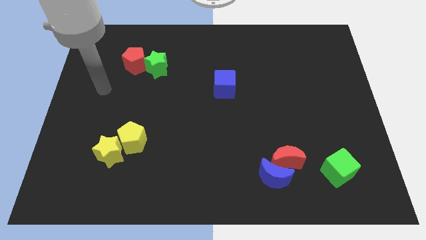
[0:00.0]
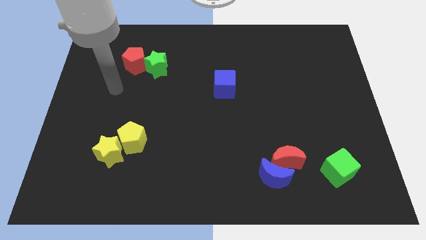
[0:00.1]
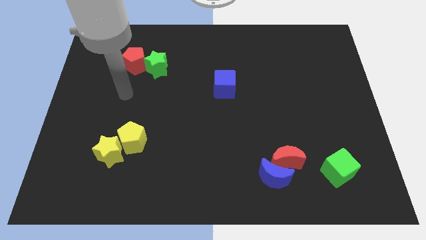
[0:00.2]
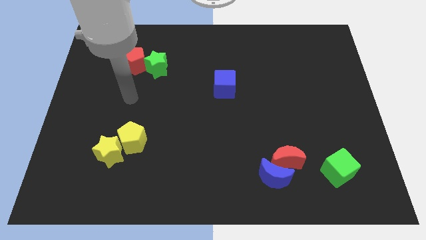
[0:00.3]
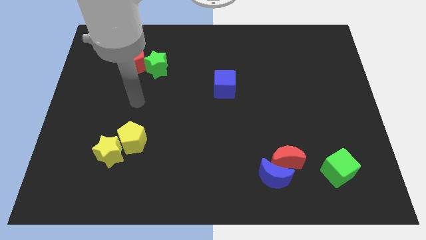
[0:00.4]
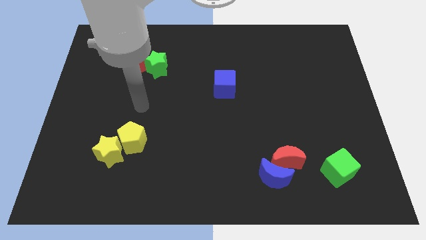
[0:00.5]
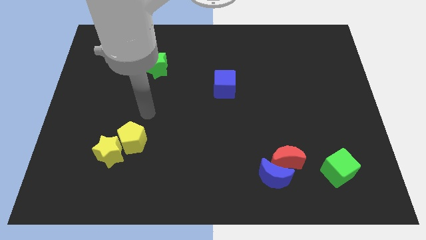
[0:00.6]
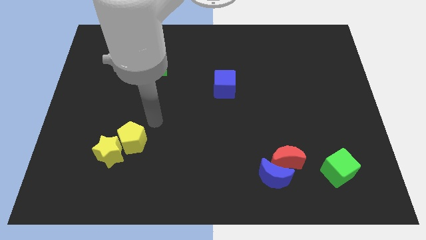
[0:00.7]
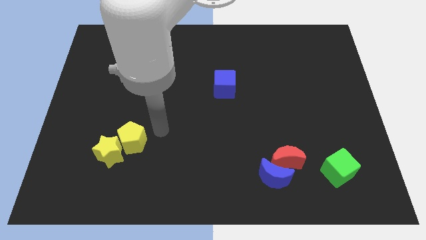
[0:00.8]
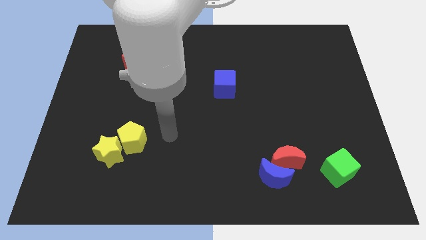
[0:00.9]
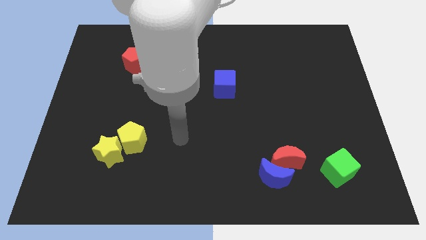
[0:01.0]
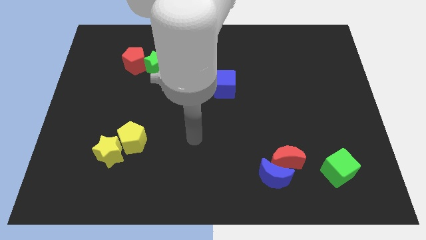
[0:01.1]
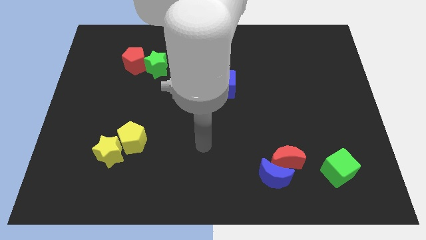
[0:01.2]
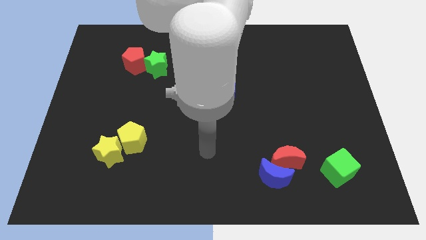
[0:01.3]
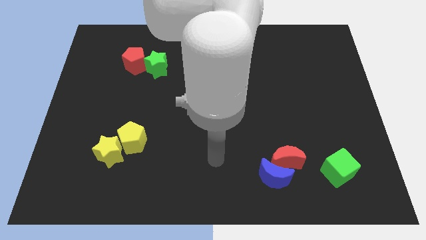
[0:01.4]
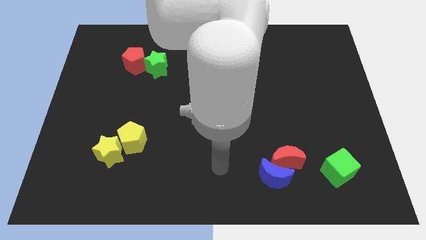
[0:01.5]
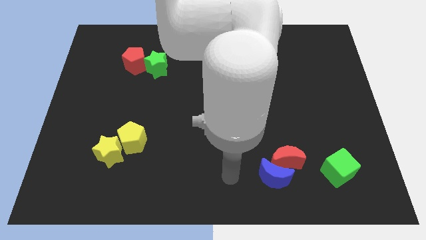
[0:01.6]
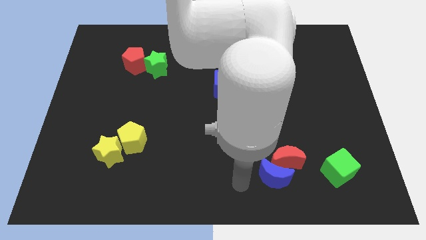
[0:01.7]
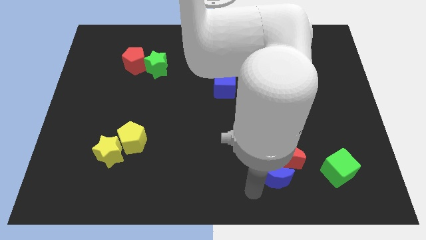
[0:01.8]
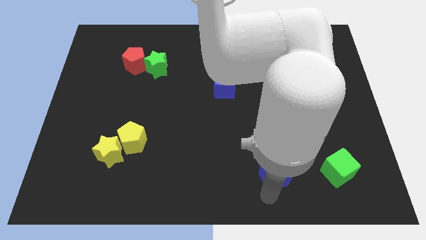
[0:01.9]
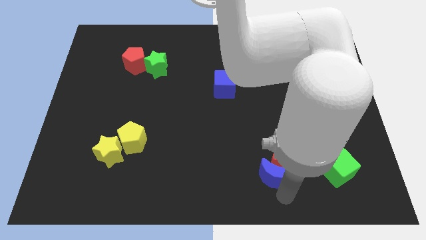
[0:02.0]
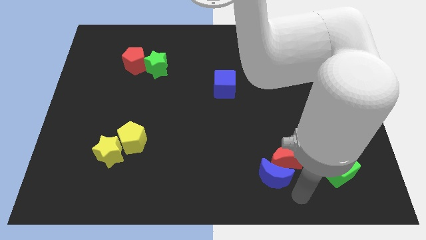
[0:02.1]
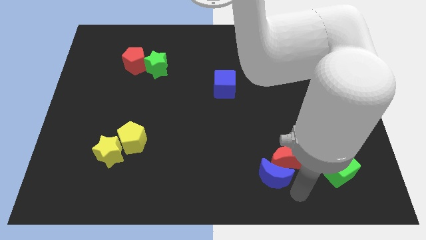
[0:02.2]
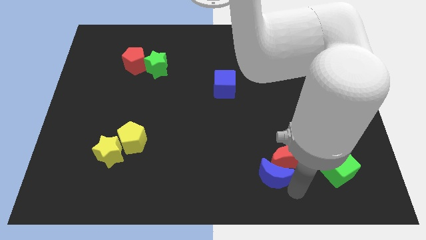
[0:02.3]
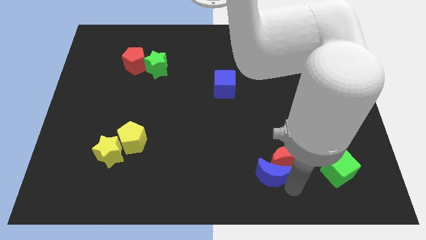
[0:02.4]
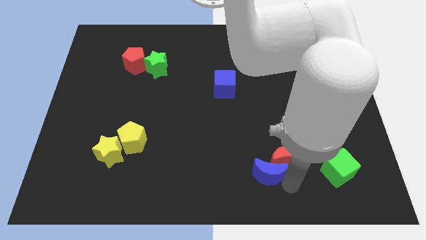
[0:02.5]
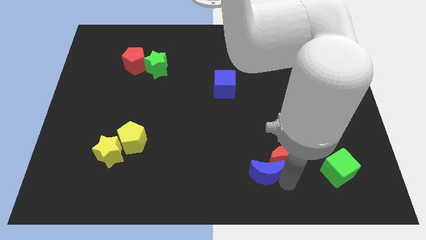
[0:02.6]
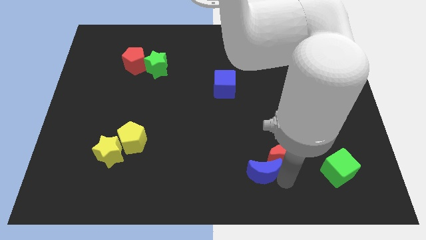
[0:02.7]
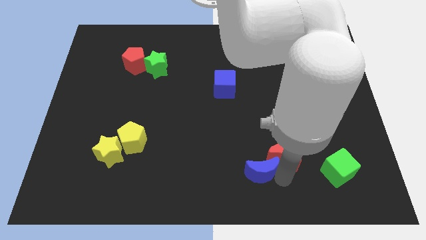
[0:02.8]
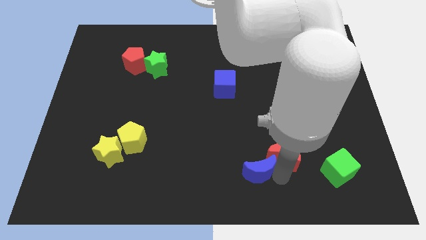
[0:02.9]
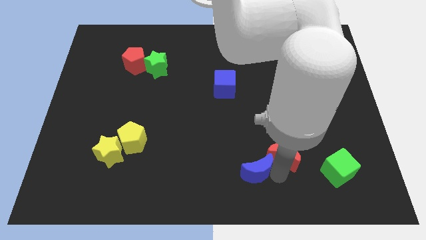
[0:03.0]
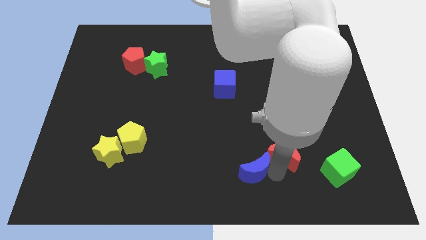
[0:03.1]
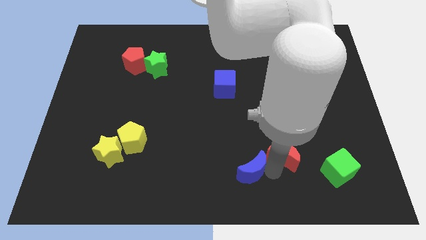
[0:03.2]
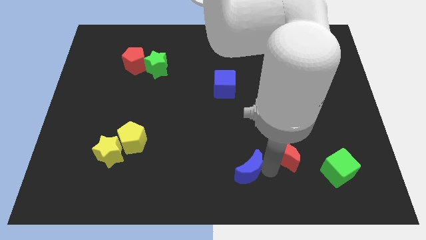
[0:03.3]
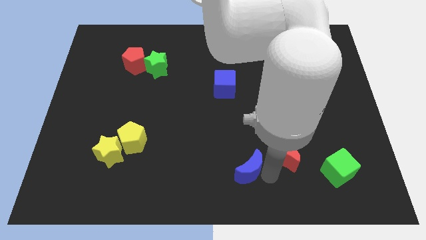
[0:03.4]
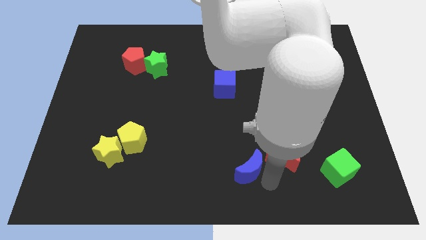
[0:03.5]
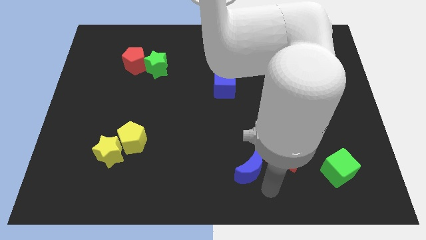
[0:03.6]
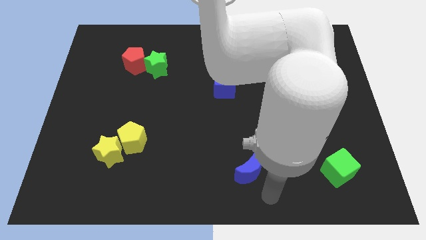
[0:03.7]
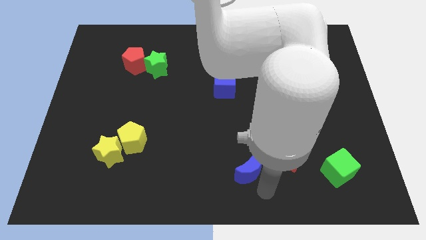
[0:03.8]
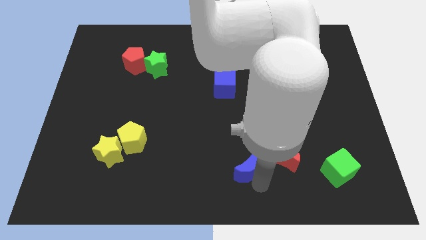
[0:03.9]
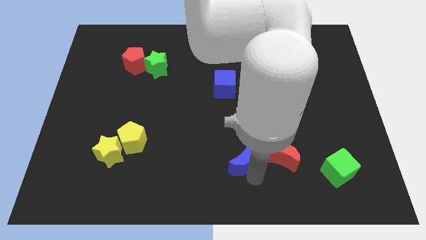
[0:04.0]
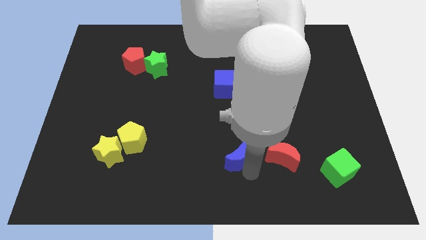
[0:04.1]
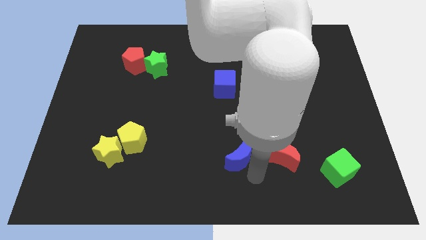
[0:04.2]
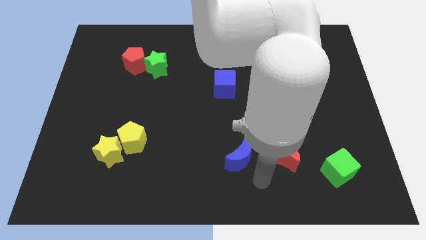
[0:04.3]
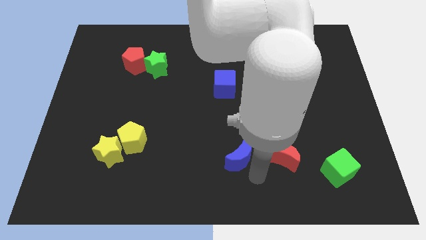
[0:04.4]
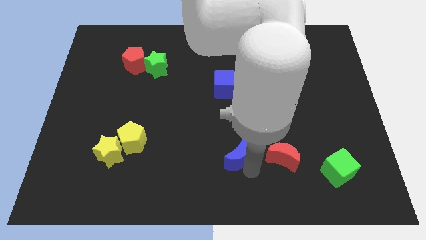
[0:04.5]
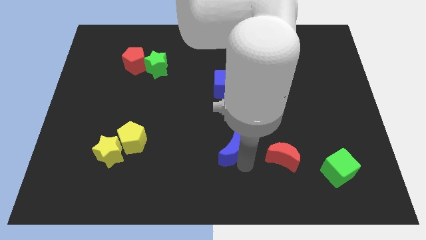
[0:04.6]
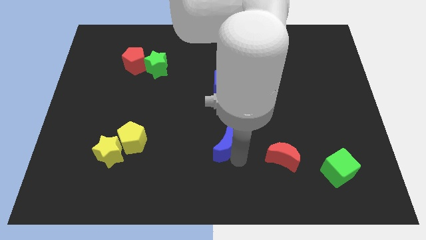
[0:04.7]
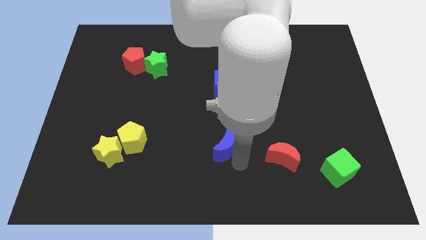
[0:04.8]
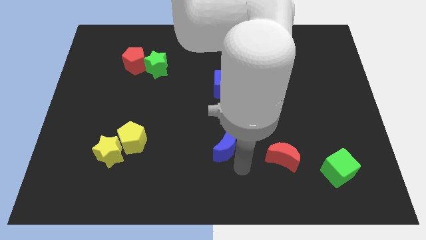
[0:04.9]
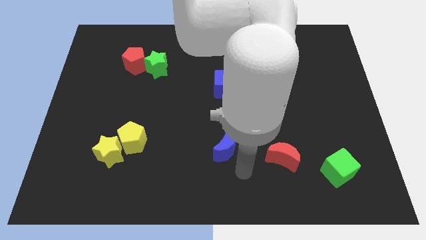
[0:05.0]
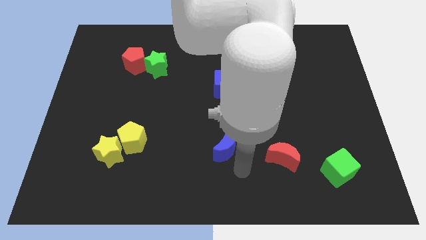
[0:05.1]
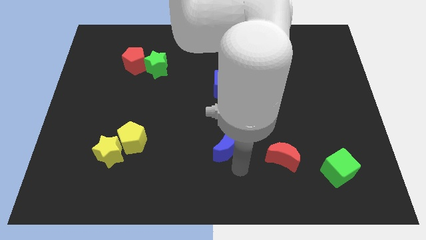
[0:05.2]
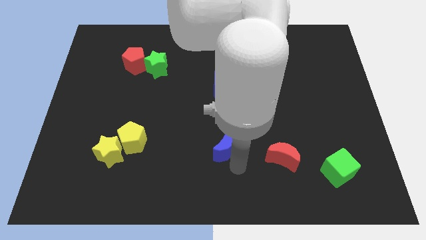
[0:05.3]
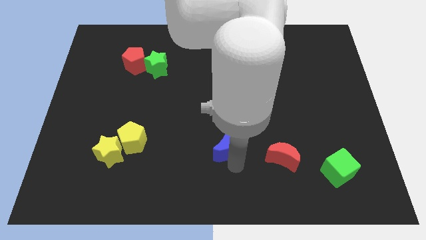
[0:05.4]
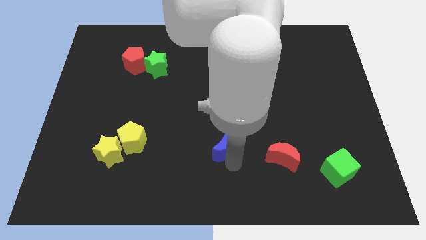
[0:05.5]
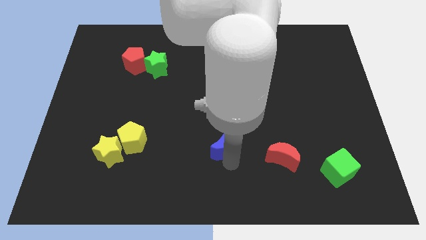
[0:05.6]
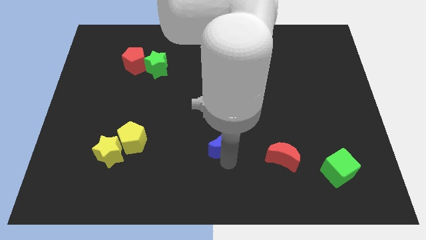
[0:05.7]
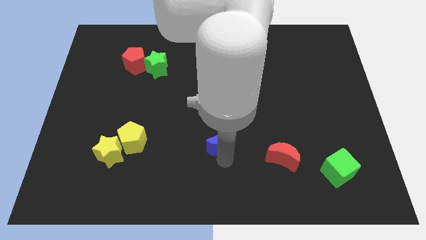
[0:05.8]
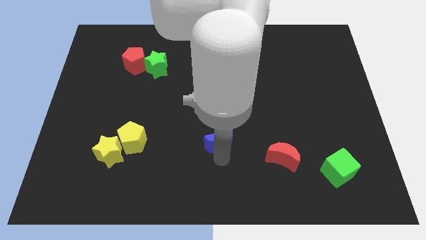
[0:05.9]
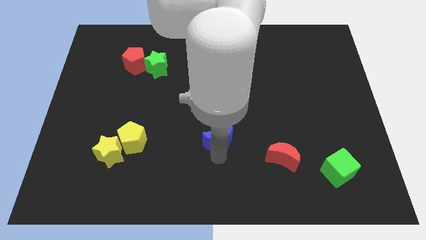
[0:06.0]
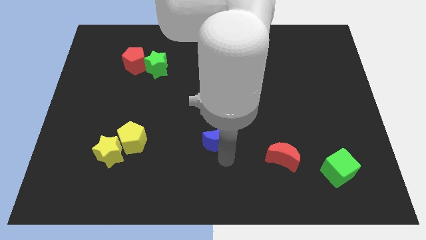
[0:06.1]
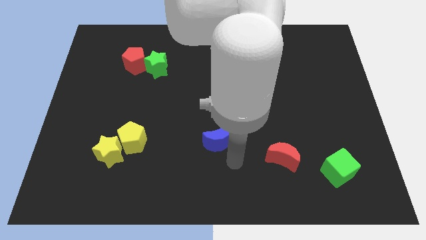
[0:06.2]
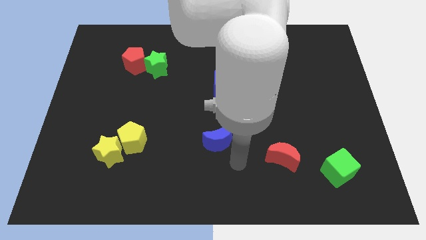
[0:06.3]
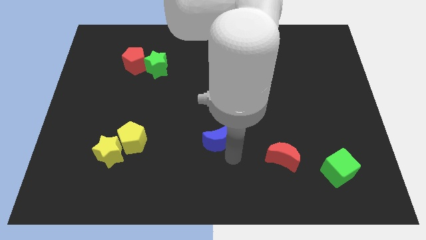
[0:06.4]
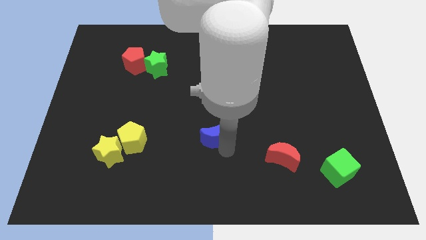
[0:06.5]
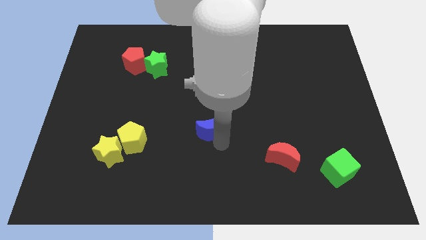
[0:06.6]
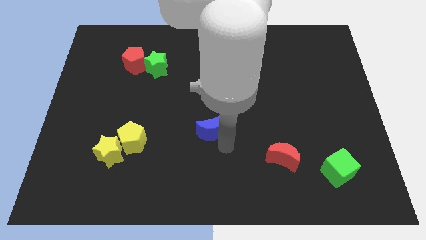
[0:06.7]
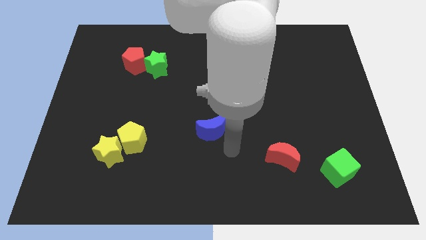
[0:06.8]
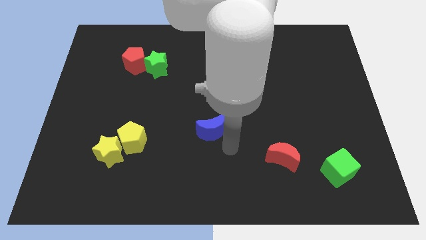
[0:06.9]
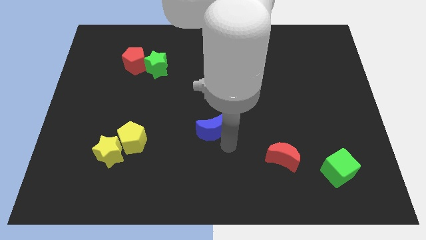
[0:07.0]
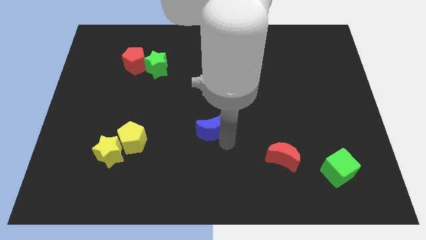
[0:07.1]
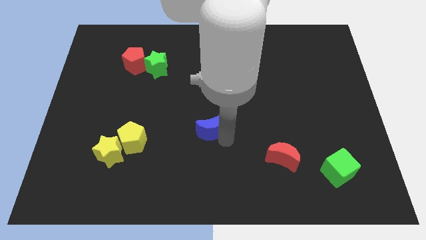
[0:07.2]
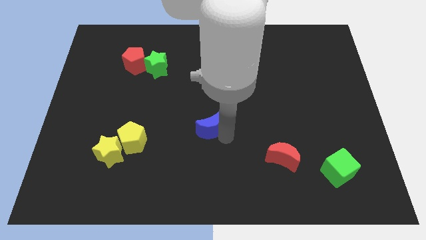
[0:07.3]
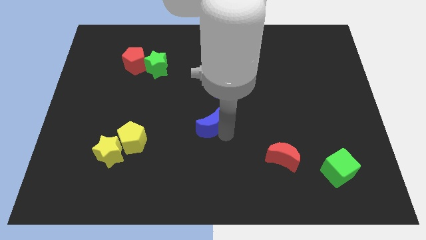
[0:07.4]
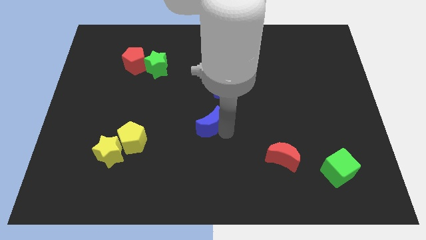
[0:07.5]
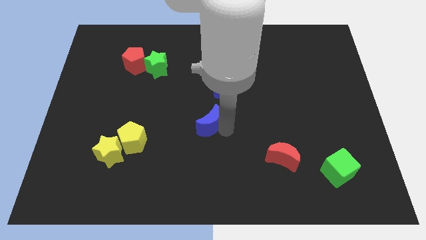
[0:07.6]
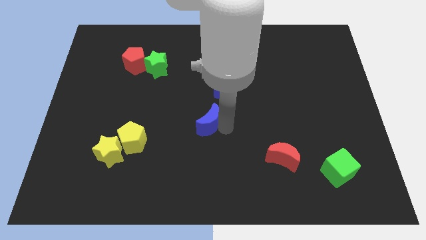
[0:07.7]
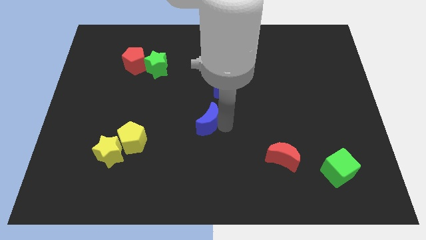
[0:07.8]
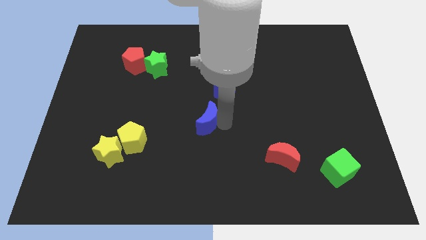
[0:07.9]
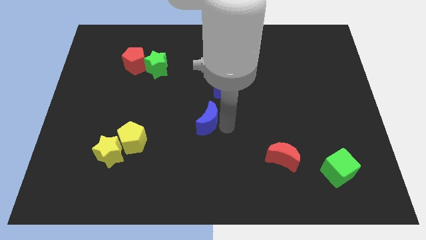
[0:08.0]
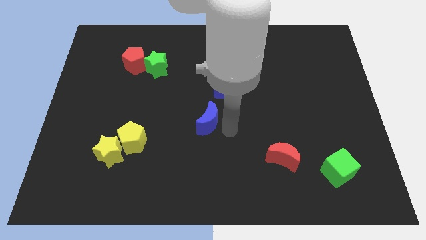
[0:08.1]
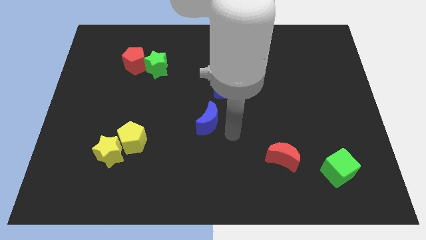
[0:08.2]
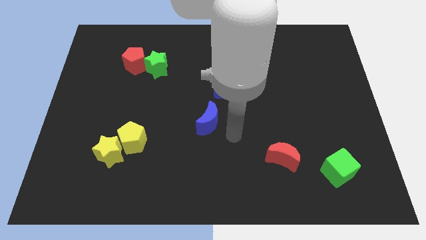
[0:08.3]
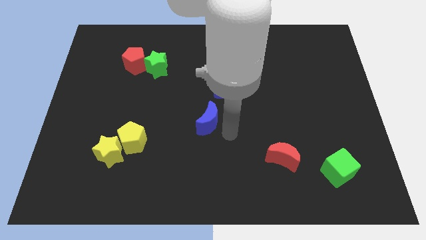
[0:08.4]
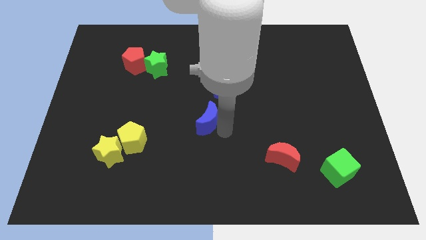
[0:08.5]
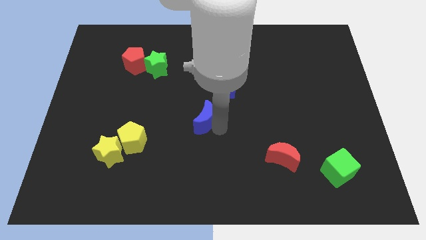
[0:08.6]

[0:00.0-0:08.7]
move the blue moon diagonally upwards and to the left
